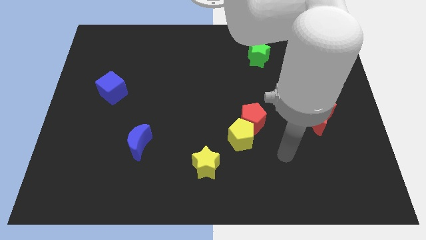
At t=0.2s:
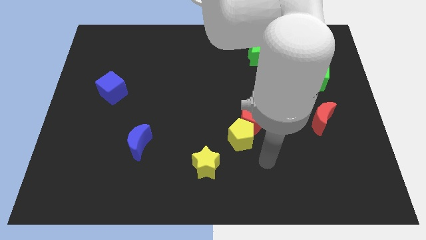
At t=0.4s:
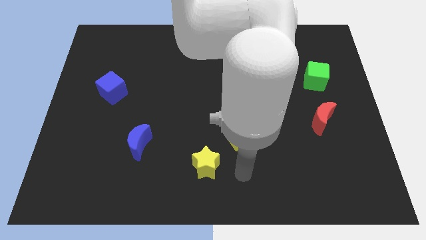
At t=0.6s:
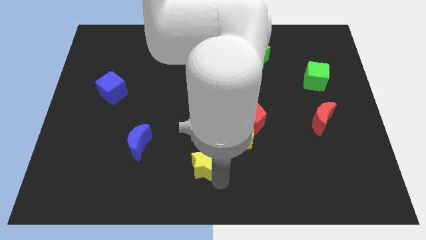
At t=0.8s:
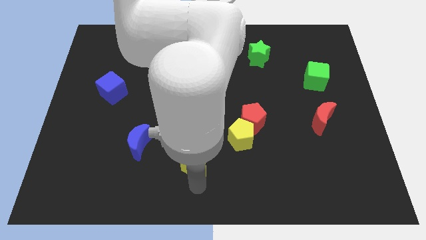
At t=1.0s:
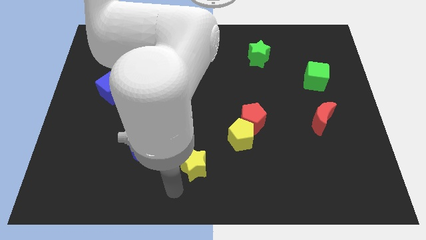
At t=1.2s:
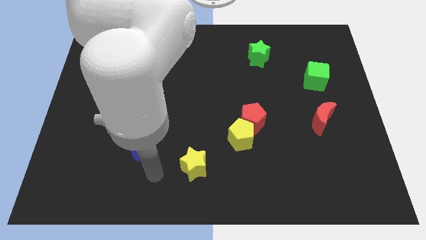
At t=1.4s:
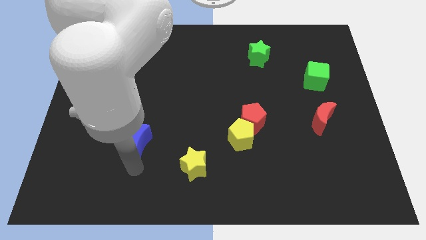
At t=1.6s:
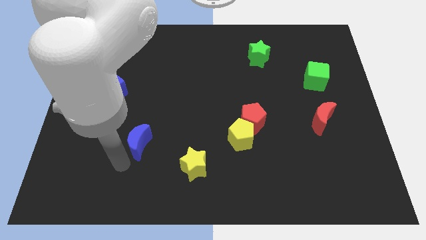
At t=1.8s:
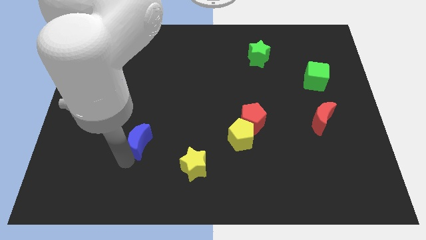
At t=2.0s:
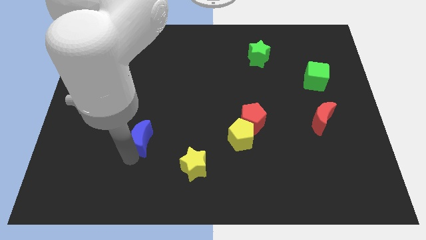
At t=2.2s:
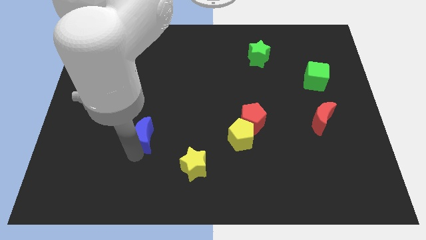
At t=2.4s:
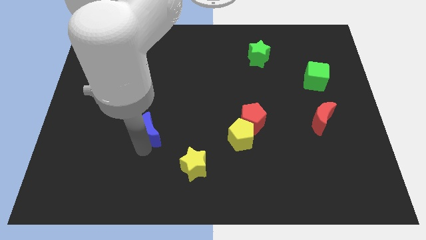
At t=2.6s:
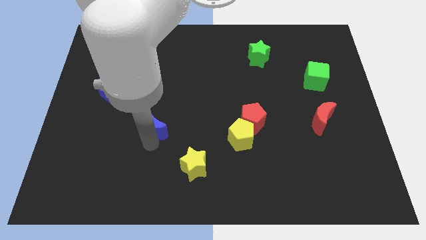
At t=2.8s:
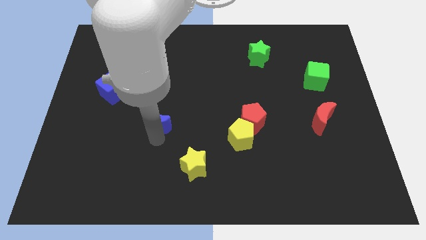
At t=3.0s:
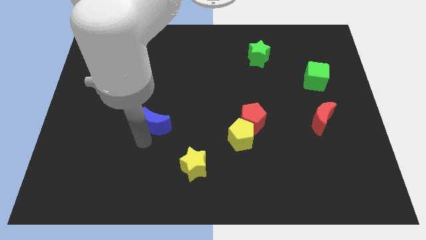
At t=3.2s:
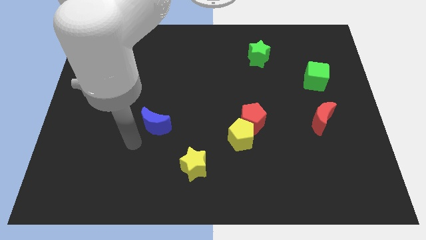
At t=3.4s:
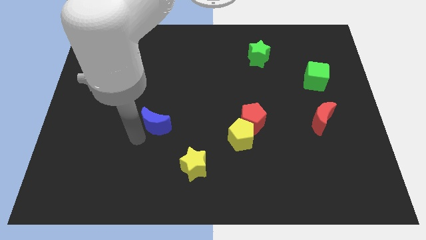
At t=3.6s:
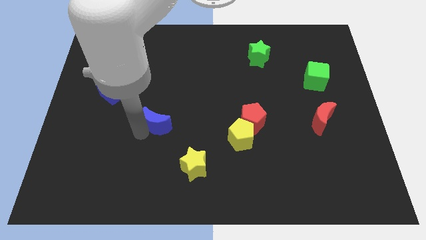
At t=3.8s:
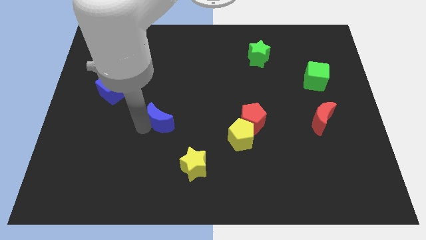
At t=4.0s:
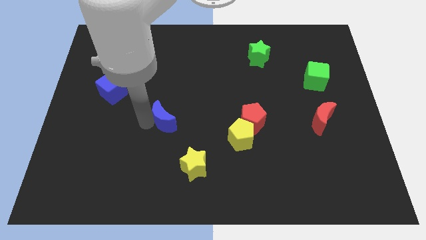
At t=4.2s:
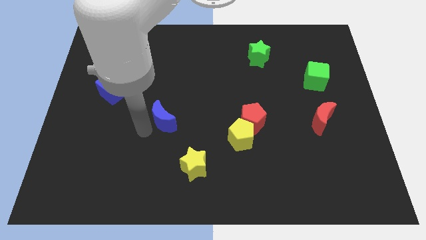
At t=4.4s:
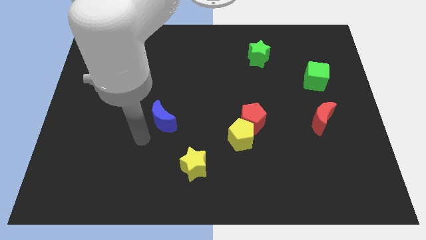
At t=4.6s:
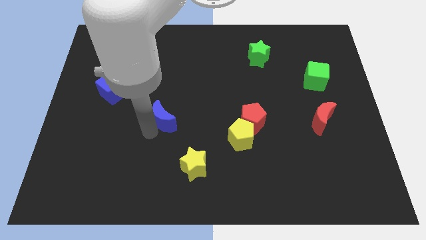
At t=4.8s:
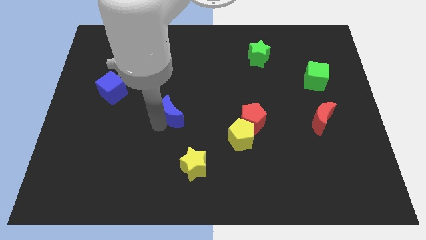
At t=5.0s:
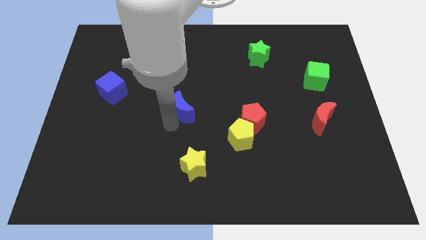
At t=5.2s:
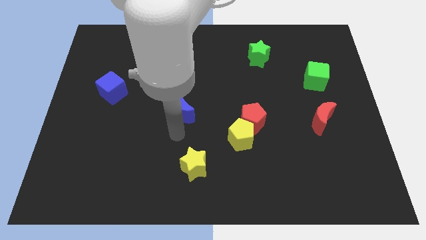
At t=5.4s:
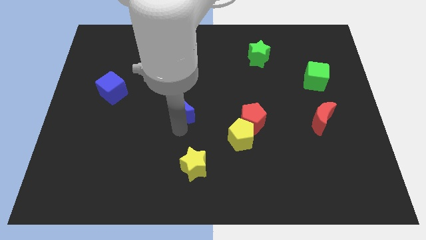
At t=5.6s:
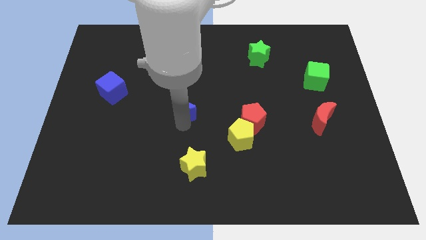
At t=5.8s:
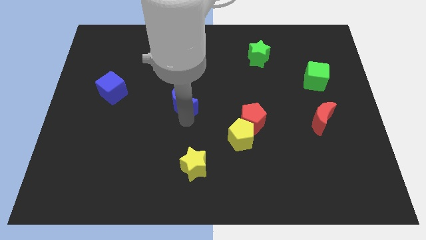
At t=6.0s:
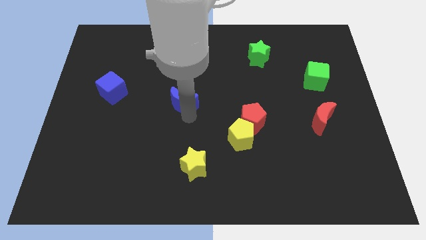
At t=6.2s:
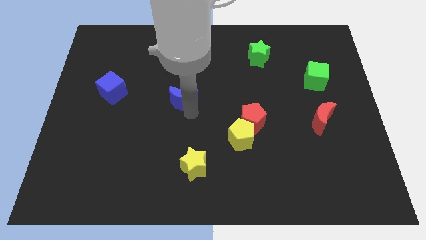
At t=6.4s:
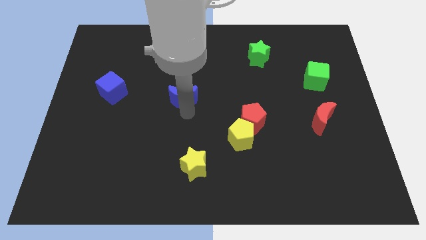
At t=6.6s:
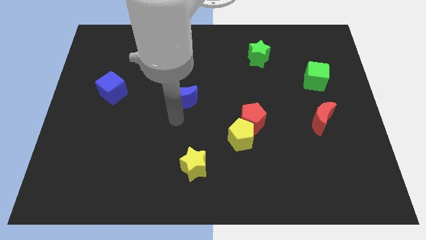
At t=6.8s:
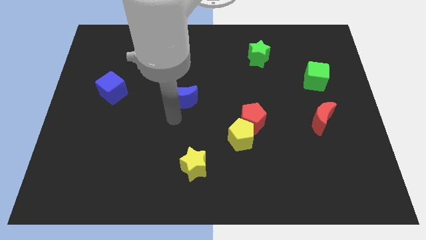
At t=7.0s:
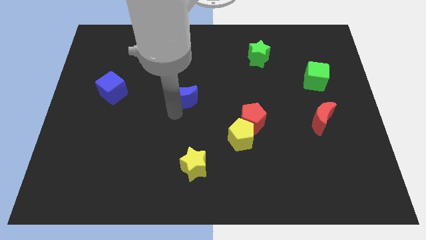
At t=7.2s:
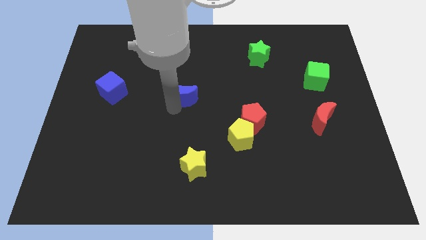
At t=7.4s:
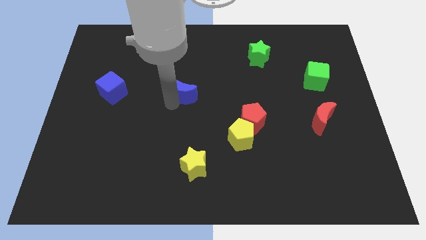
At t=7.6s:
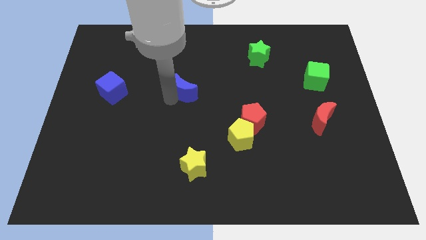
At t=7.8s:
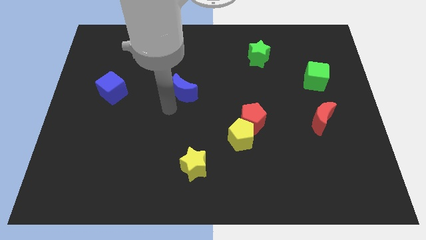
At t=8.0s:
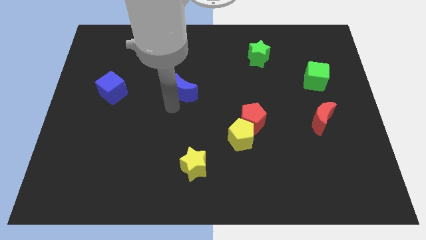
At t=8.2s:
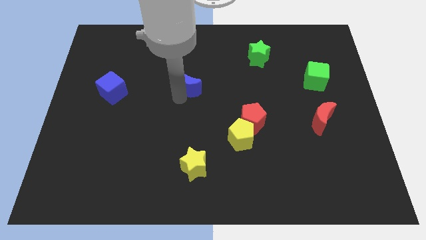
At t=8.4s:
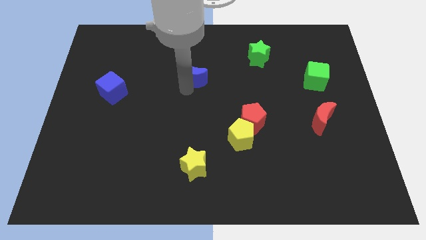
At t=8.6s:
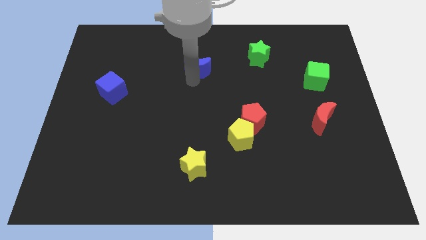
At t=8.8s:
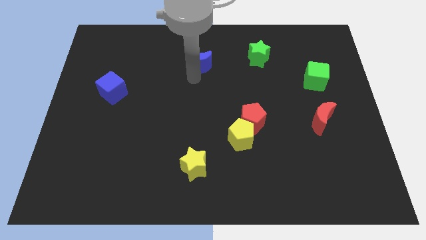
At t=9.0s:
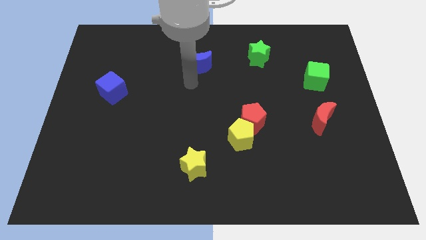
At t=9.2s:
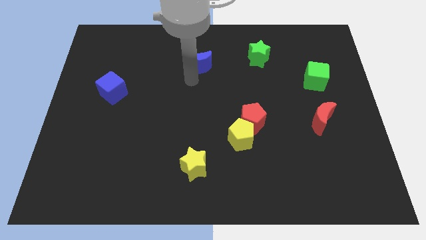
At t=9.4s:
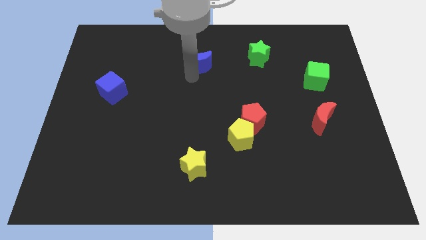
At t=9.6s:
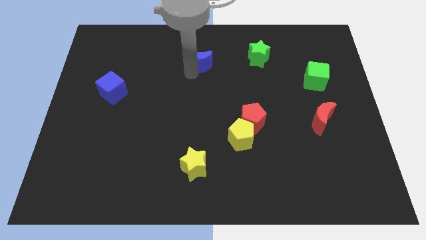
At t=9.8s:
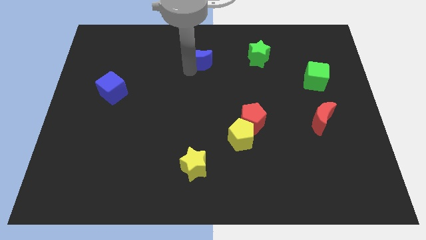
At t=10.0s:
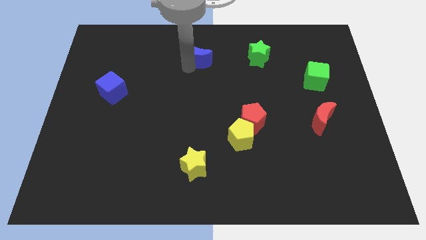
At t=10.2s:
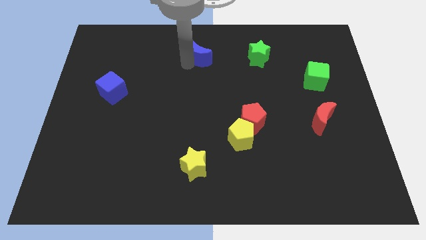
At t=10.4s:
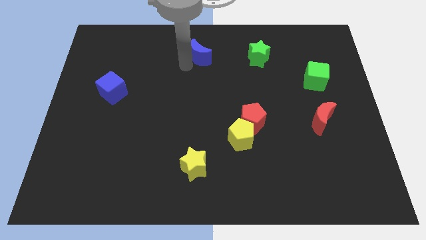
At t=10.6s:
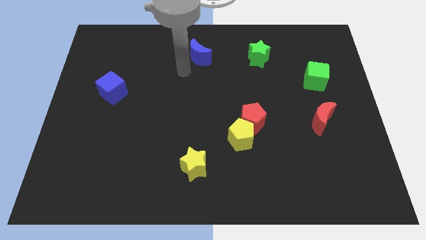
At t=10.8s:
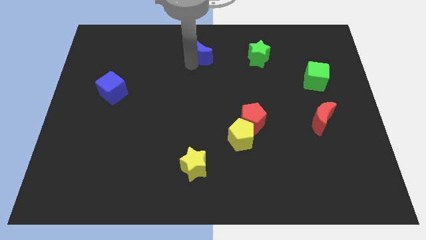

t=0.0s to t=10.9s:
put the blue moon to the towards your base

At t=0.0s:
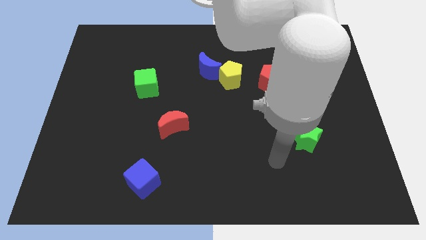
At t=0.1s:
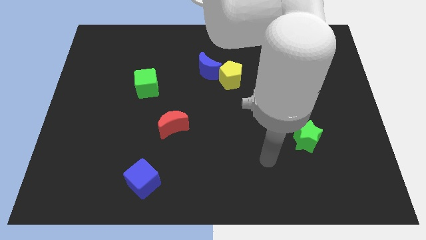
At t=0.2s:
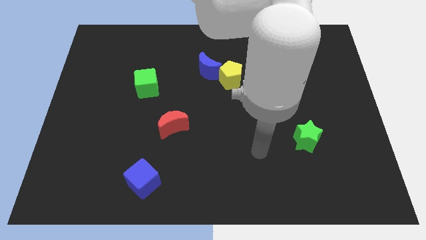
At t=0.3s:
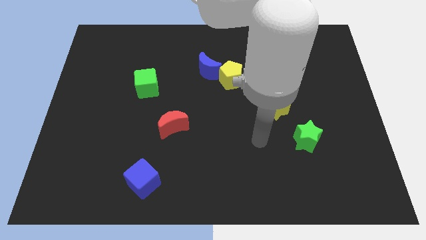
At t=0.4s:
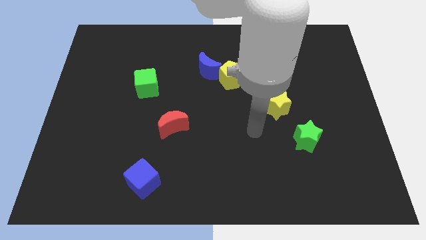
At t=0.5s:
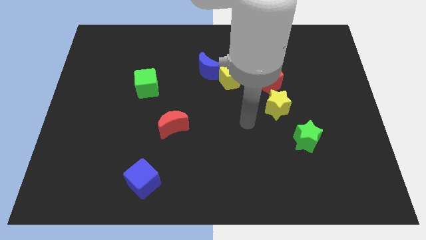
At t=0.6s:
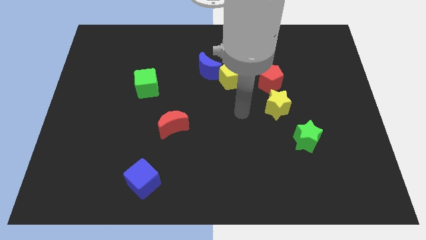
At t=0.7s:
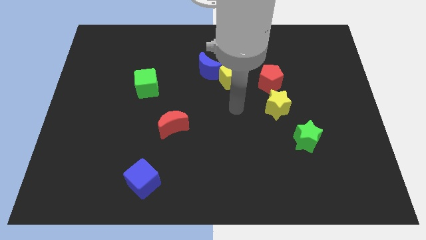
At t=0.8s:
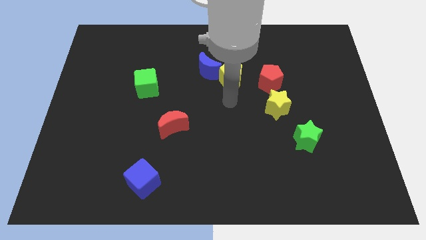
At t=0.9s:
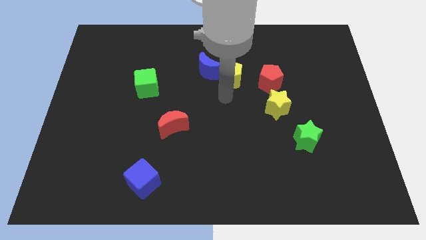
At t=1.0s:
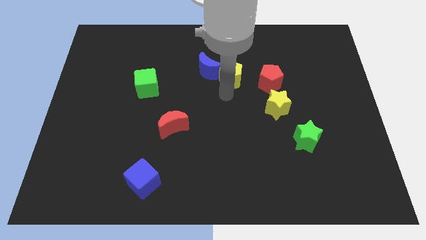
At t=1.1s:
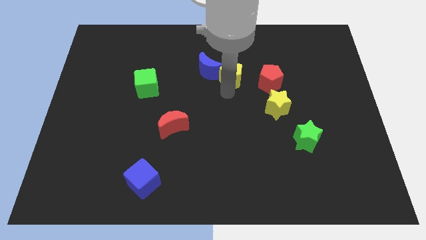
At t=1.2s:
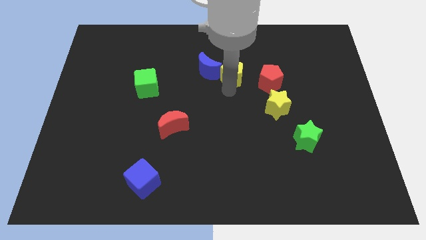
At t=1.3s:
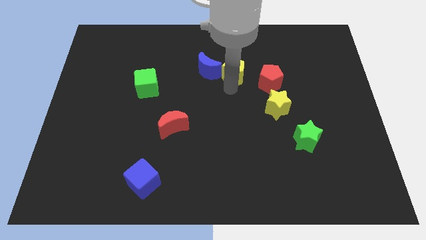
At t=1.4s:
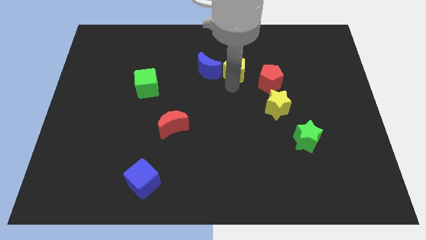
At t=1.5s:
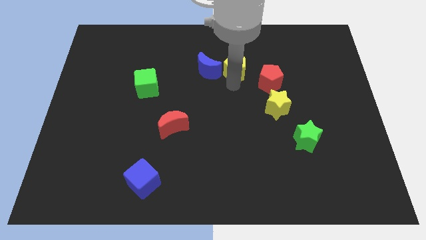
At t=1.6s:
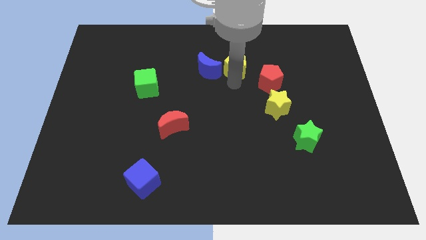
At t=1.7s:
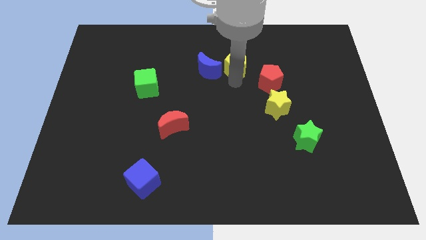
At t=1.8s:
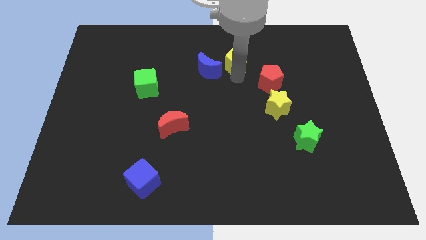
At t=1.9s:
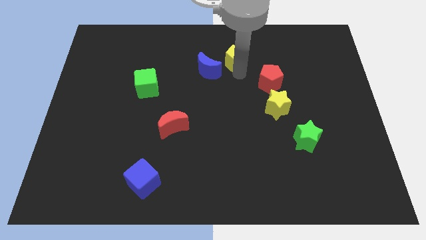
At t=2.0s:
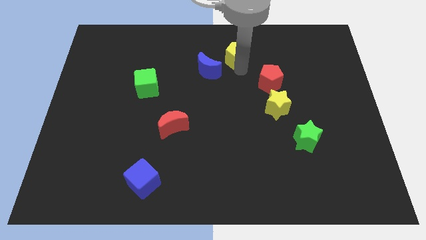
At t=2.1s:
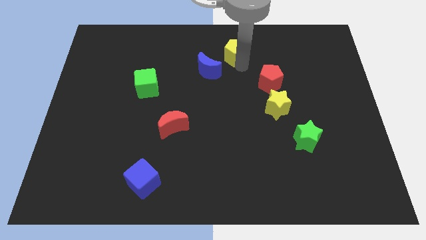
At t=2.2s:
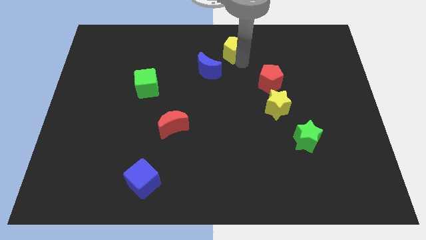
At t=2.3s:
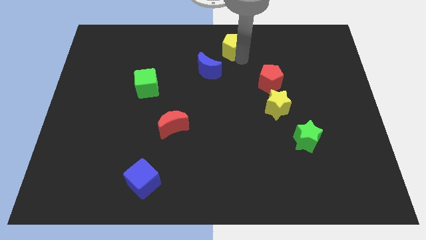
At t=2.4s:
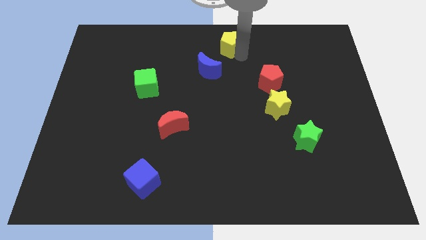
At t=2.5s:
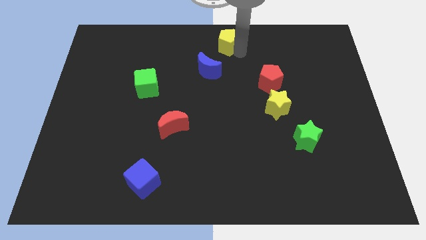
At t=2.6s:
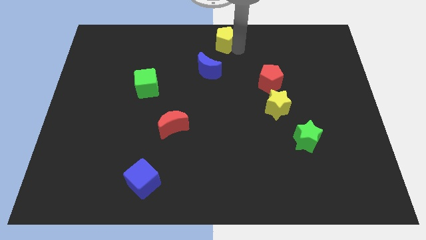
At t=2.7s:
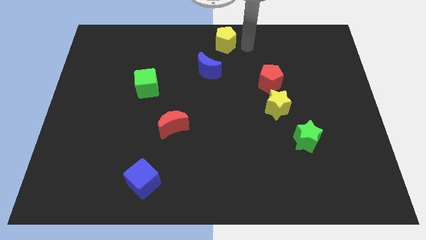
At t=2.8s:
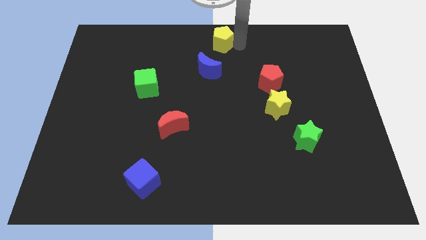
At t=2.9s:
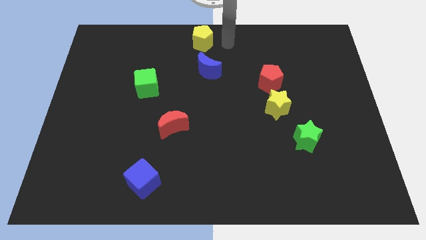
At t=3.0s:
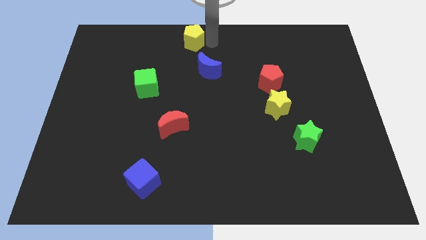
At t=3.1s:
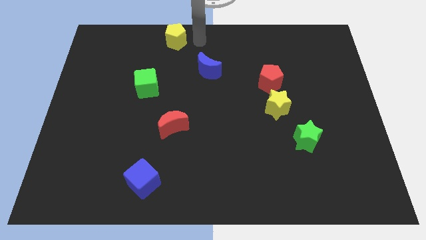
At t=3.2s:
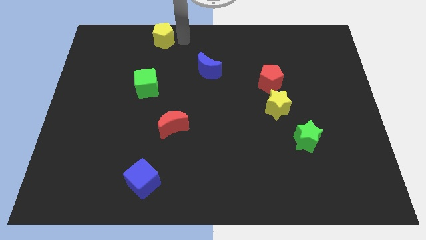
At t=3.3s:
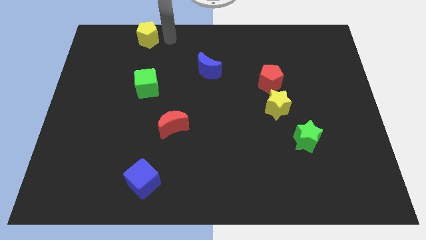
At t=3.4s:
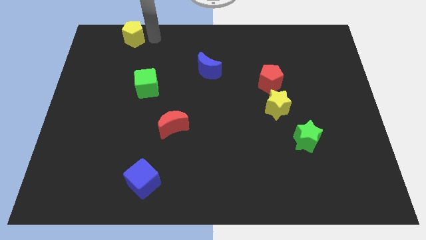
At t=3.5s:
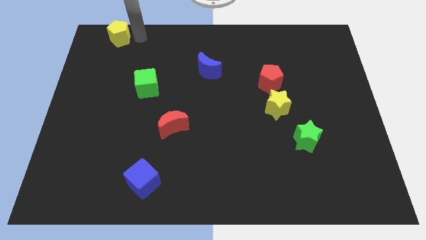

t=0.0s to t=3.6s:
move the yellow pentagon to the top left
